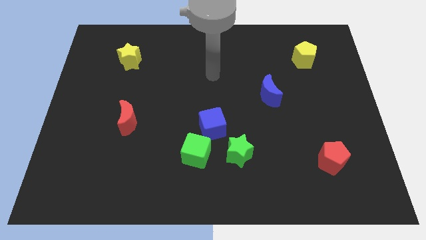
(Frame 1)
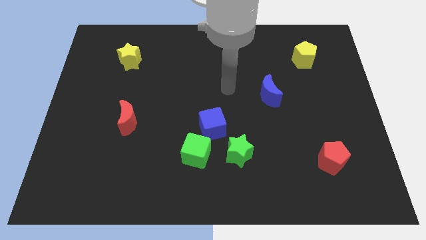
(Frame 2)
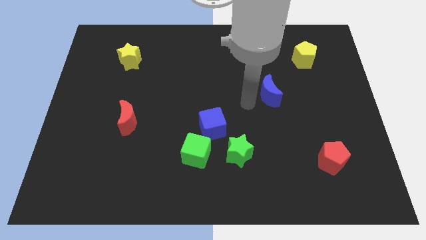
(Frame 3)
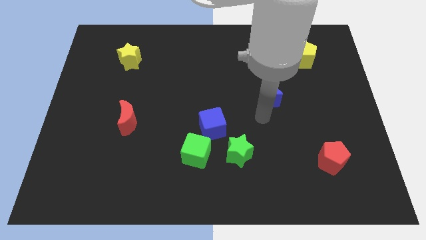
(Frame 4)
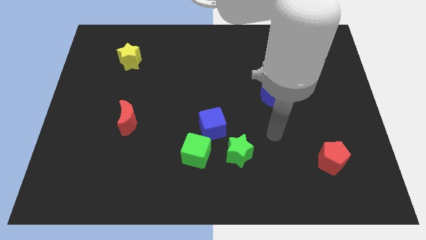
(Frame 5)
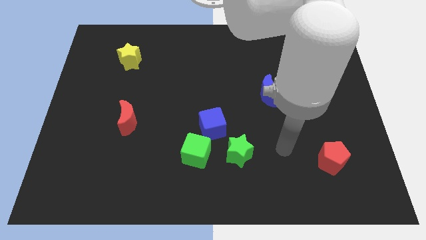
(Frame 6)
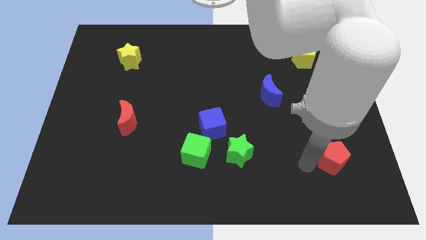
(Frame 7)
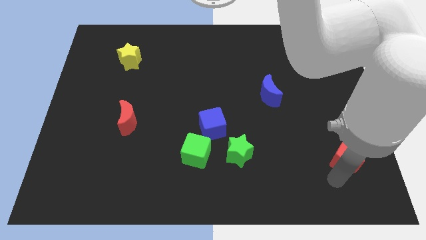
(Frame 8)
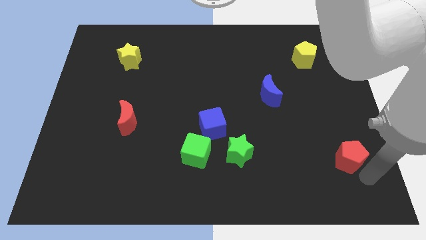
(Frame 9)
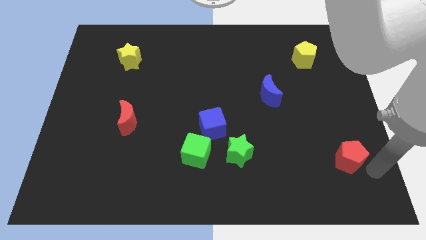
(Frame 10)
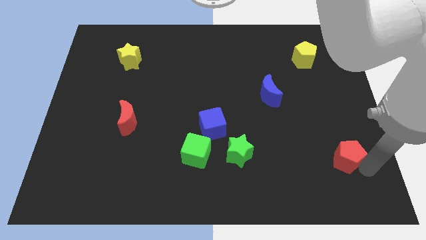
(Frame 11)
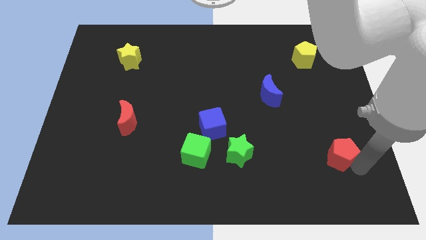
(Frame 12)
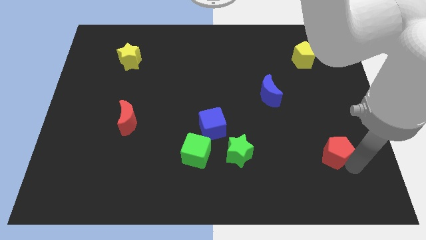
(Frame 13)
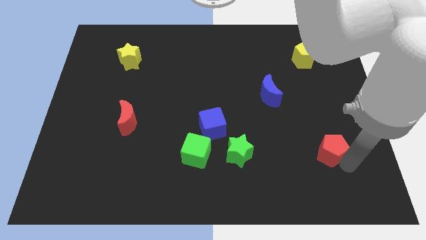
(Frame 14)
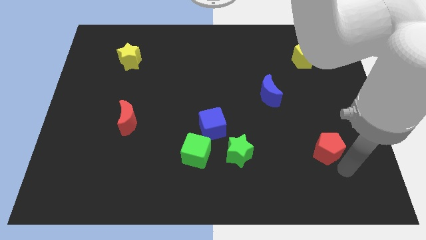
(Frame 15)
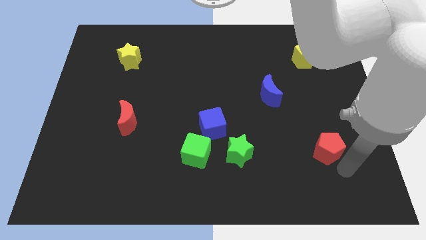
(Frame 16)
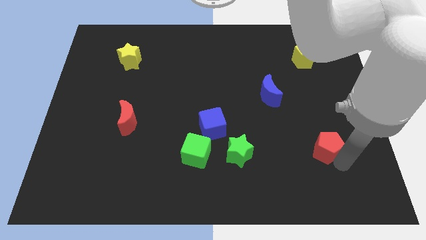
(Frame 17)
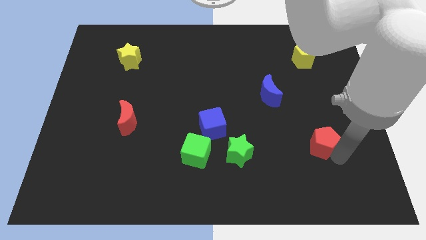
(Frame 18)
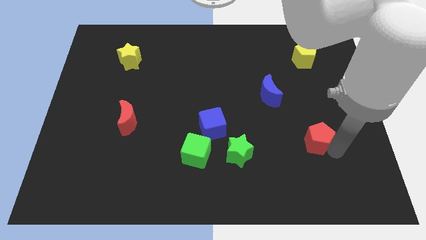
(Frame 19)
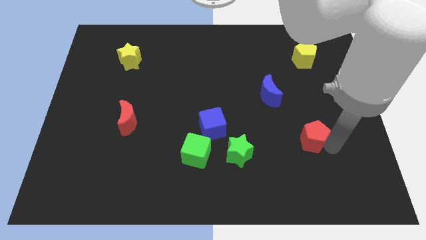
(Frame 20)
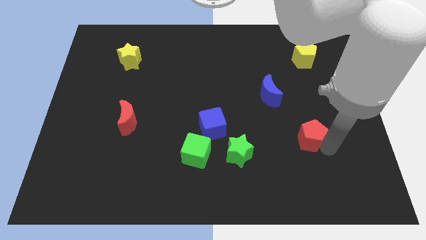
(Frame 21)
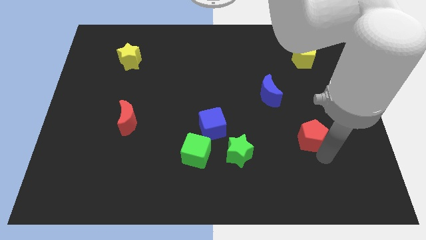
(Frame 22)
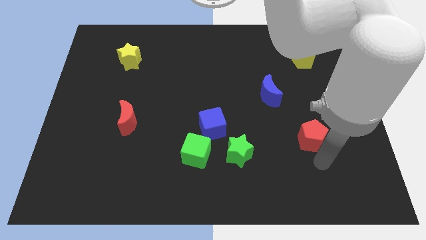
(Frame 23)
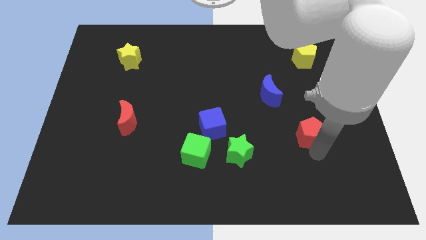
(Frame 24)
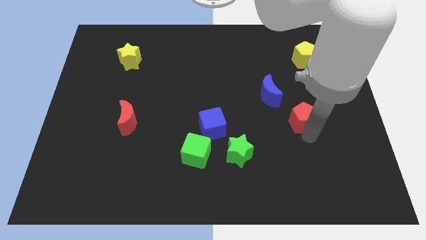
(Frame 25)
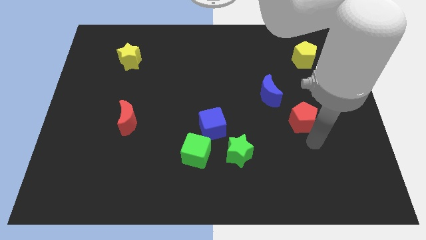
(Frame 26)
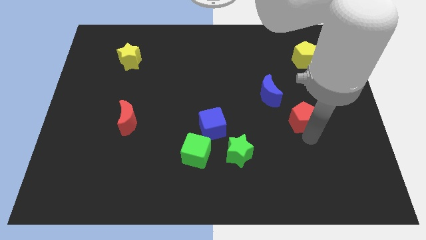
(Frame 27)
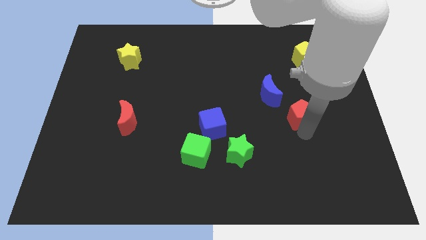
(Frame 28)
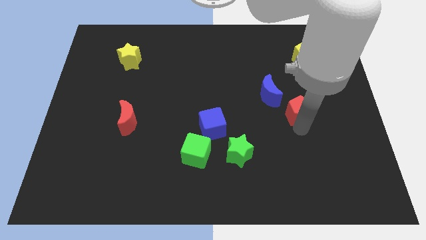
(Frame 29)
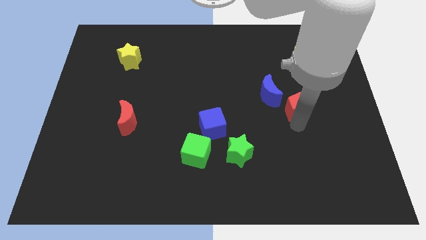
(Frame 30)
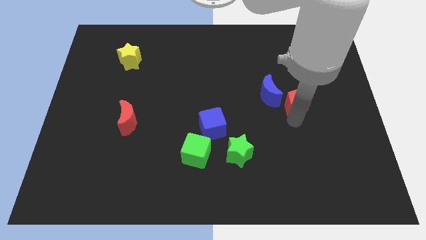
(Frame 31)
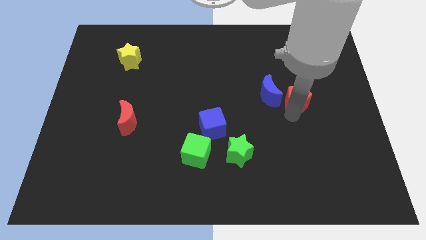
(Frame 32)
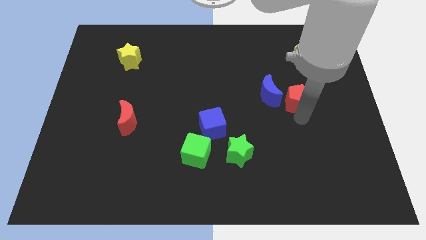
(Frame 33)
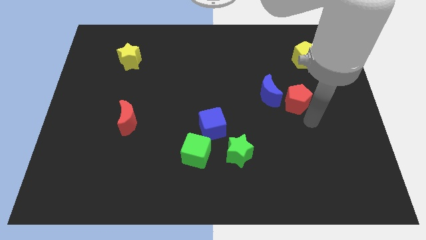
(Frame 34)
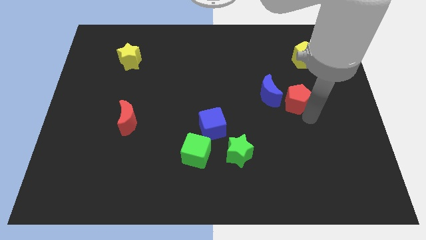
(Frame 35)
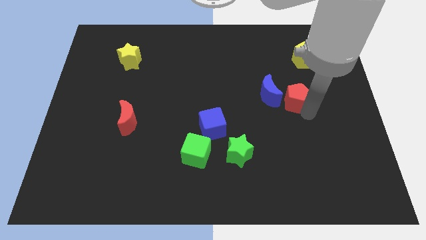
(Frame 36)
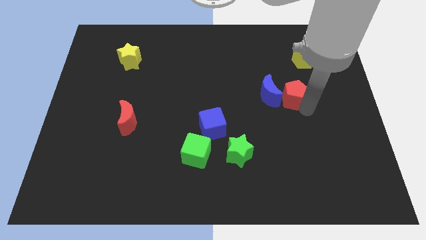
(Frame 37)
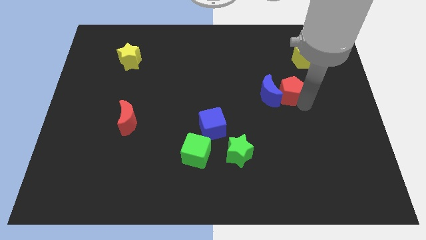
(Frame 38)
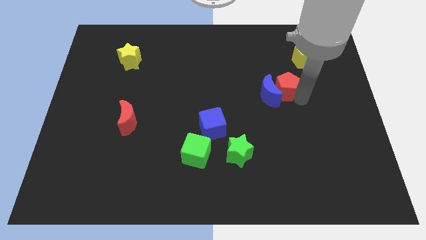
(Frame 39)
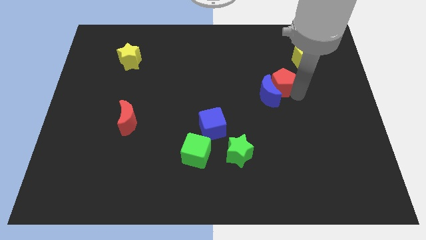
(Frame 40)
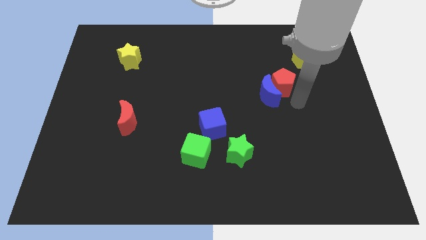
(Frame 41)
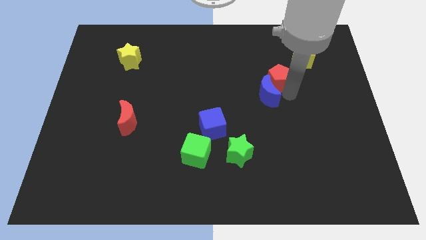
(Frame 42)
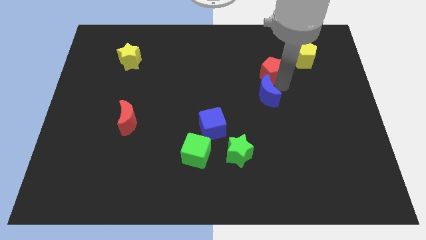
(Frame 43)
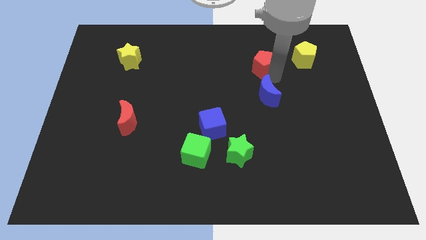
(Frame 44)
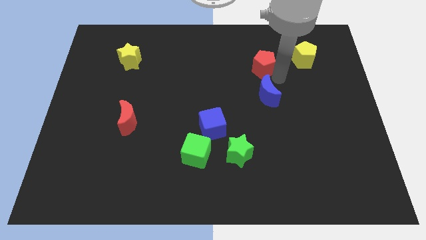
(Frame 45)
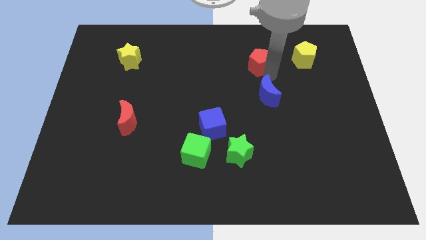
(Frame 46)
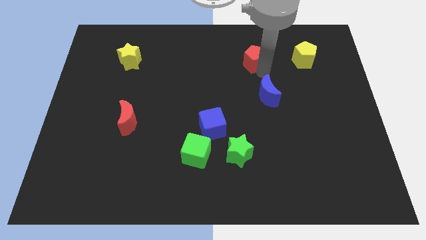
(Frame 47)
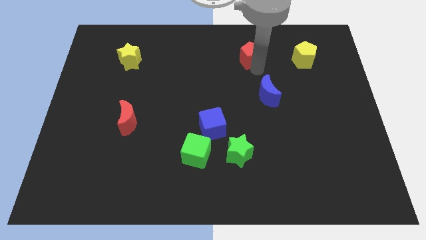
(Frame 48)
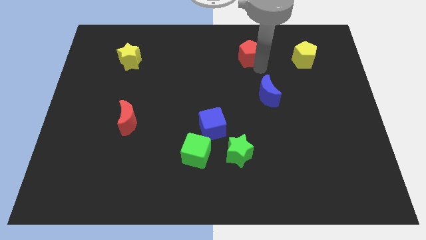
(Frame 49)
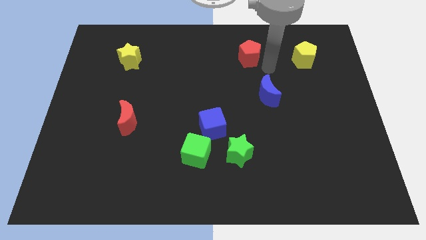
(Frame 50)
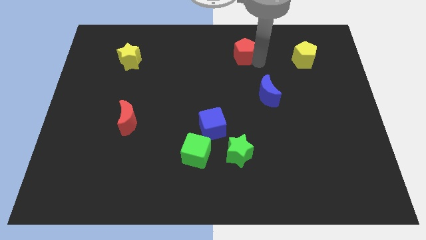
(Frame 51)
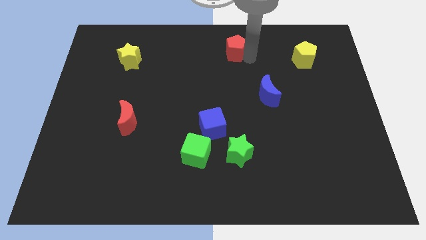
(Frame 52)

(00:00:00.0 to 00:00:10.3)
push the red pentagon to the top side

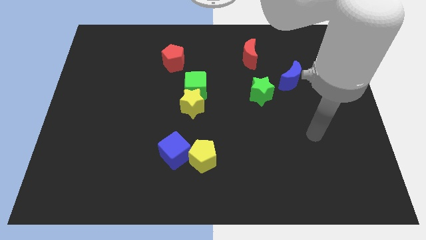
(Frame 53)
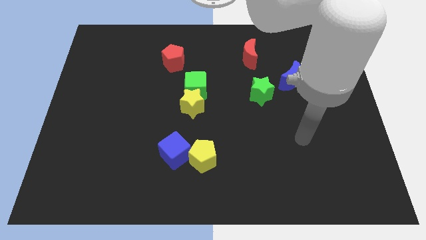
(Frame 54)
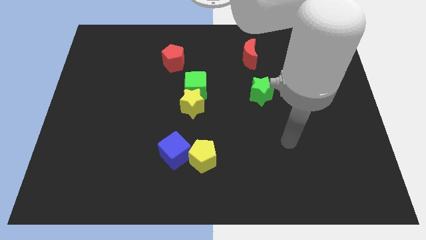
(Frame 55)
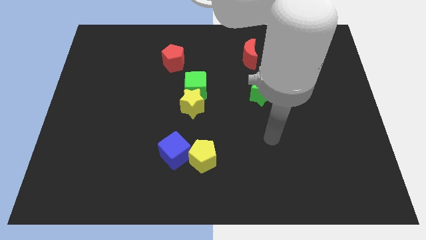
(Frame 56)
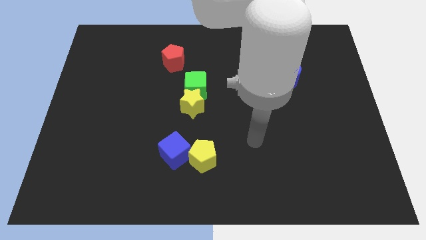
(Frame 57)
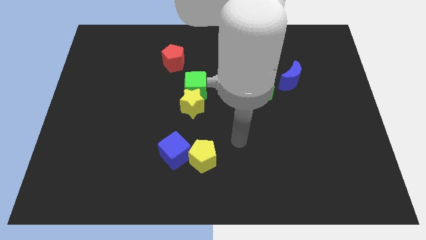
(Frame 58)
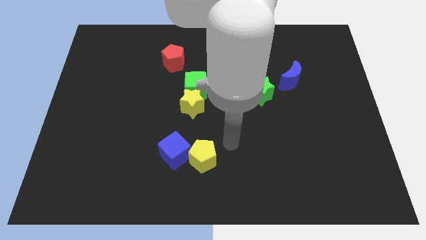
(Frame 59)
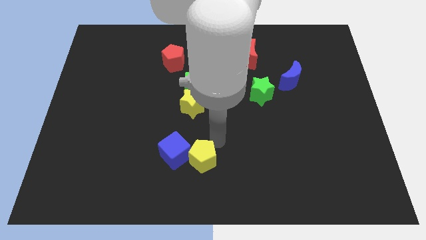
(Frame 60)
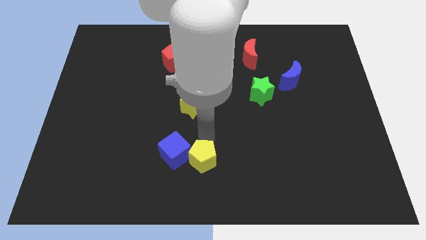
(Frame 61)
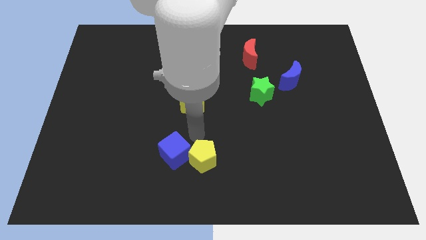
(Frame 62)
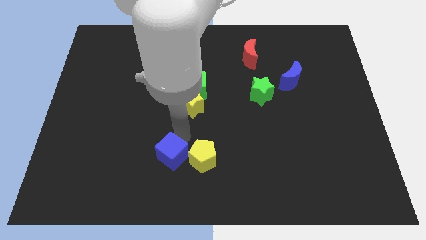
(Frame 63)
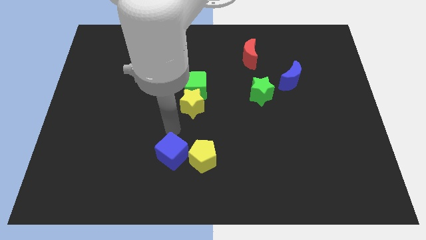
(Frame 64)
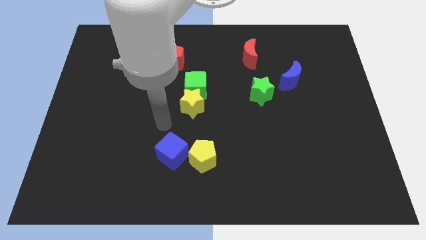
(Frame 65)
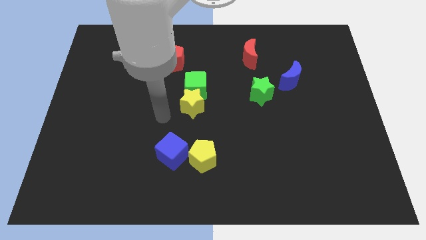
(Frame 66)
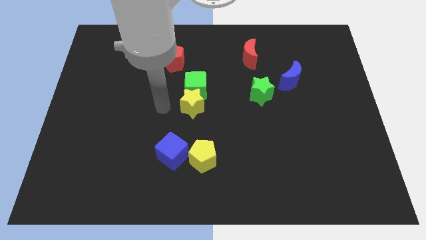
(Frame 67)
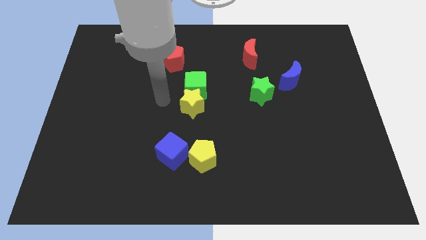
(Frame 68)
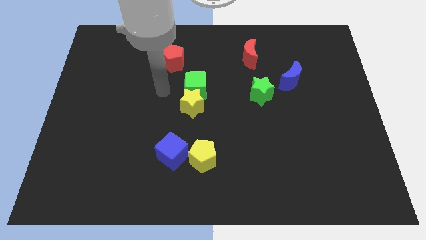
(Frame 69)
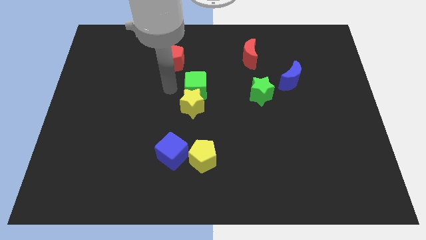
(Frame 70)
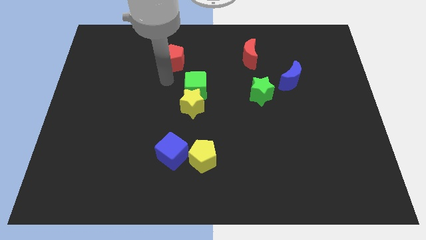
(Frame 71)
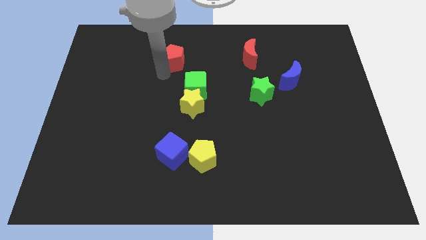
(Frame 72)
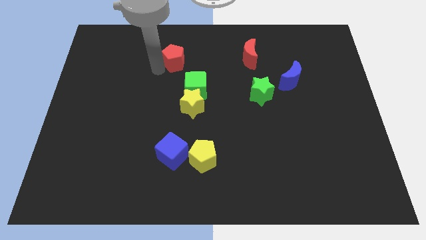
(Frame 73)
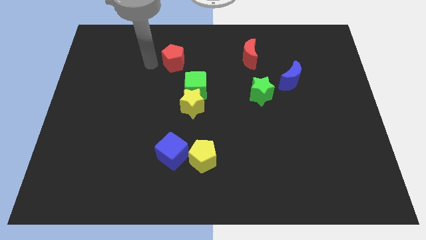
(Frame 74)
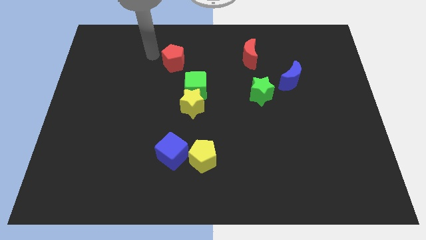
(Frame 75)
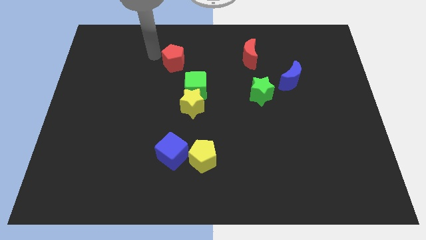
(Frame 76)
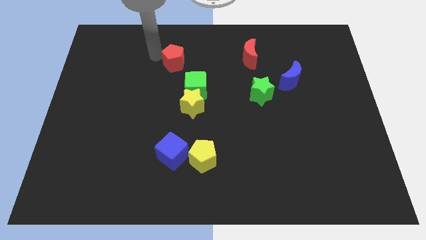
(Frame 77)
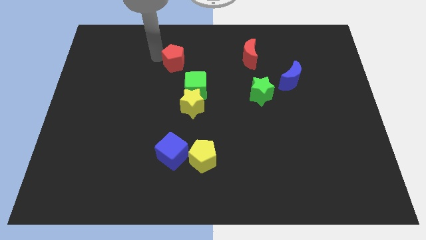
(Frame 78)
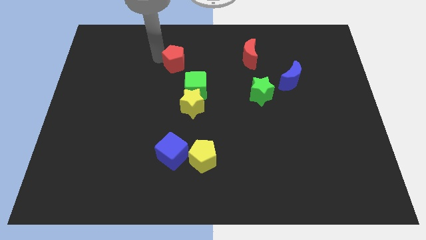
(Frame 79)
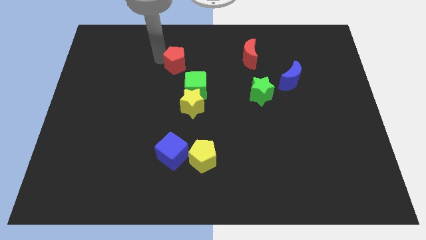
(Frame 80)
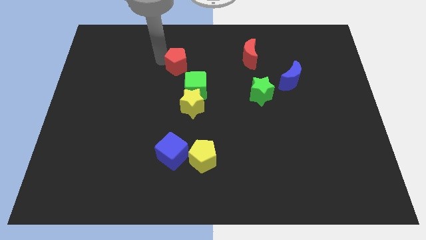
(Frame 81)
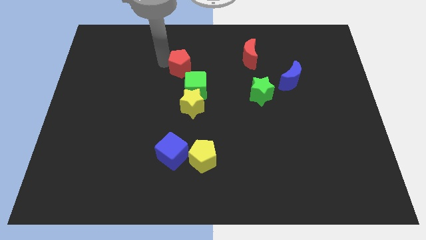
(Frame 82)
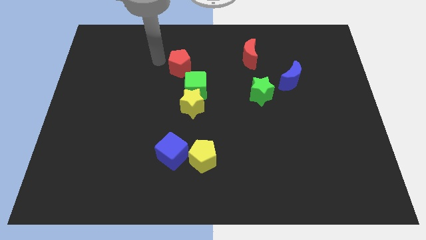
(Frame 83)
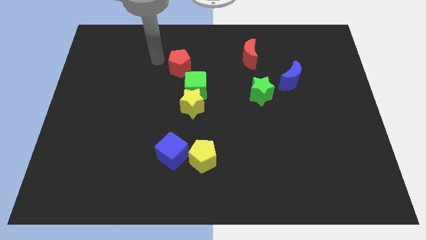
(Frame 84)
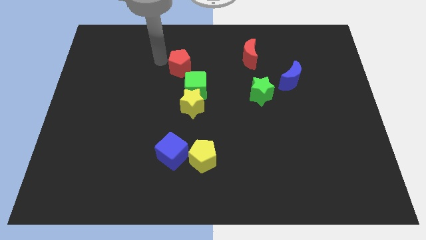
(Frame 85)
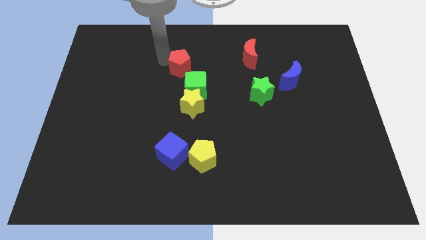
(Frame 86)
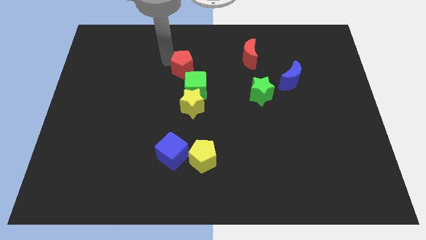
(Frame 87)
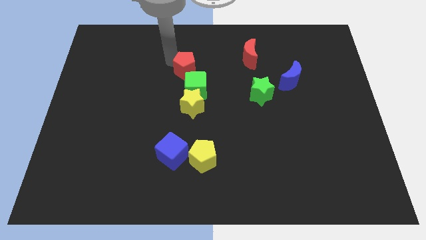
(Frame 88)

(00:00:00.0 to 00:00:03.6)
move the red pentagon to the center of the board
